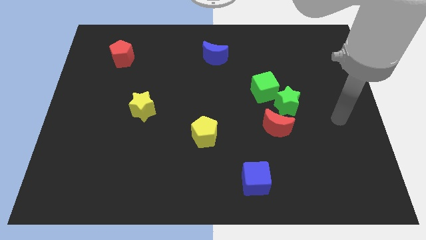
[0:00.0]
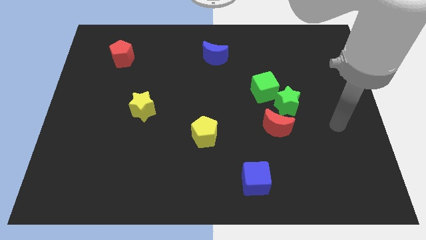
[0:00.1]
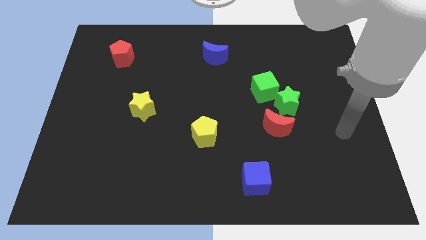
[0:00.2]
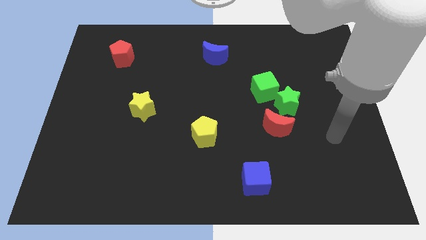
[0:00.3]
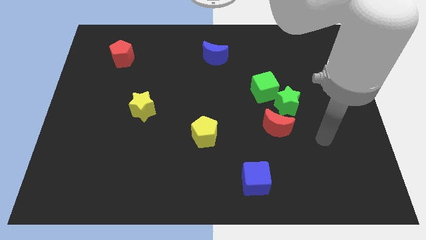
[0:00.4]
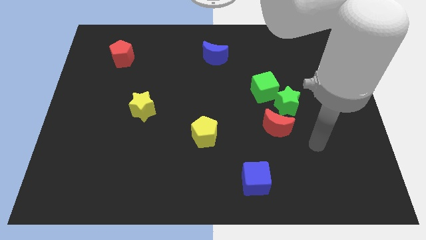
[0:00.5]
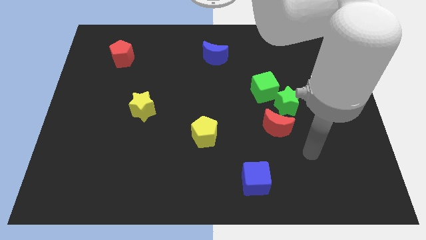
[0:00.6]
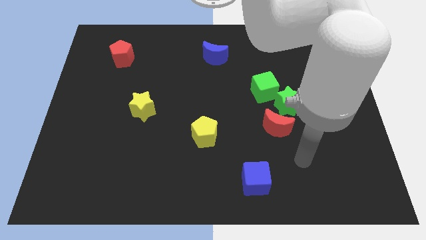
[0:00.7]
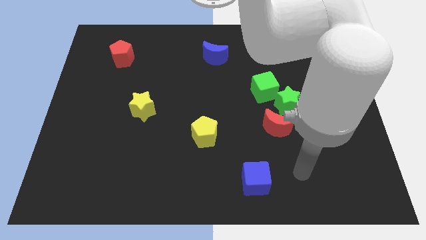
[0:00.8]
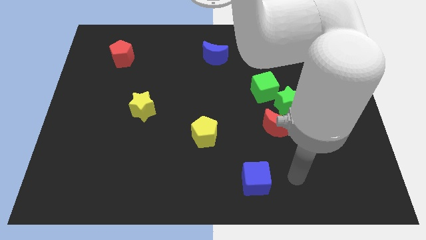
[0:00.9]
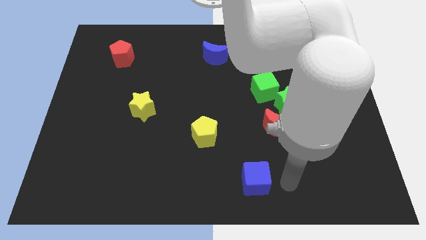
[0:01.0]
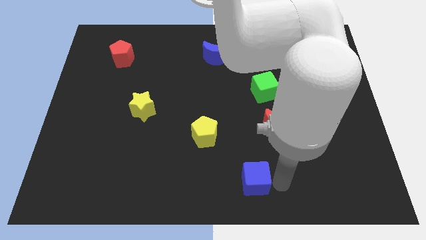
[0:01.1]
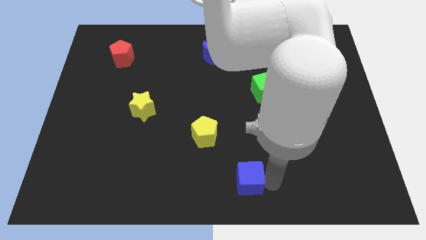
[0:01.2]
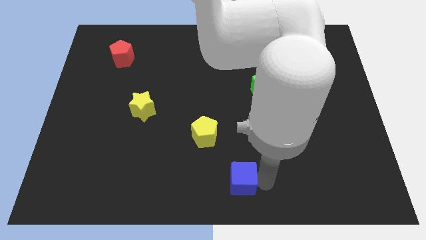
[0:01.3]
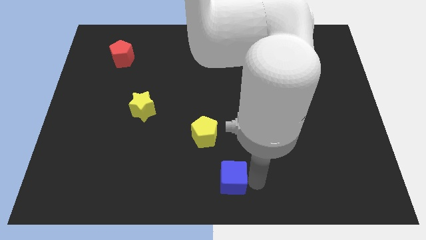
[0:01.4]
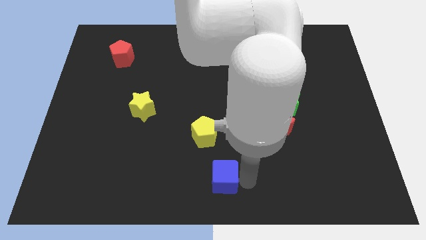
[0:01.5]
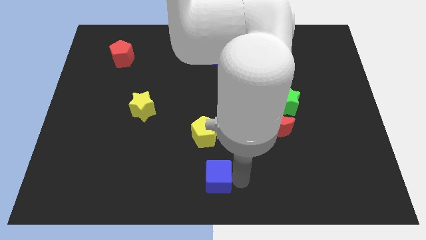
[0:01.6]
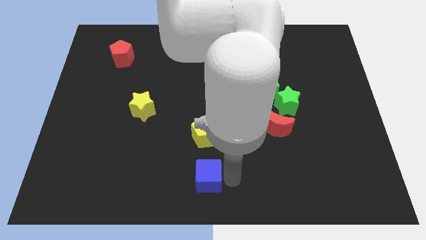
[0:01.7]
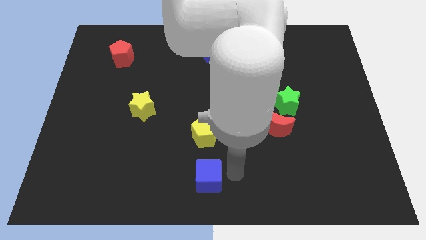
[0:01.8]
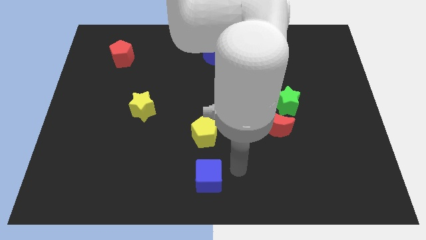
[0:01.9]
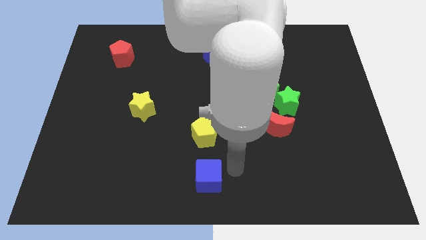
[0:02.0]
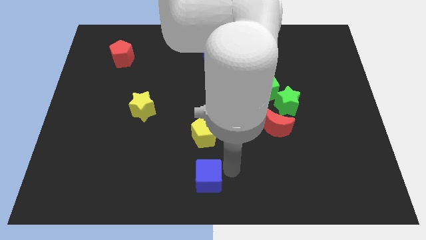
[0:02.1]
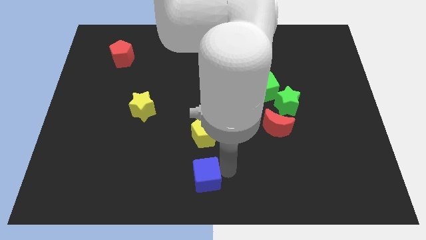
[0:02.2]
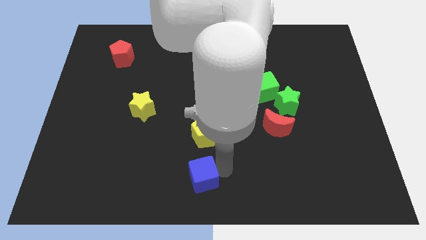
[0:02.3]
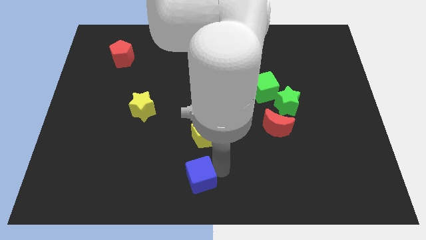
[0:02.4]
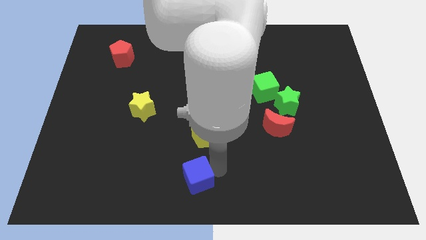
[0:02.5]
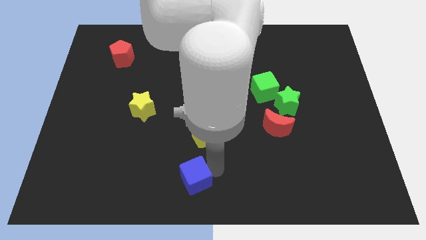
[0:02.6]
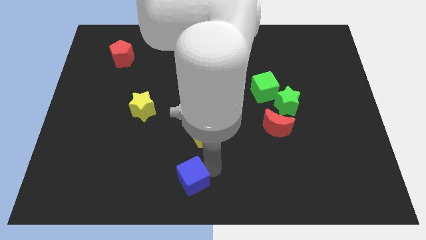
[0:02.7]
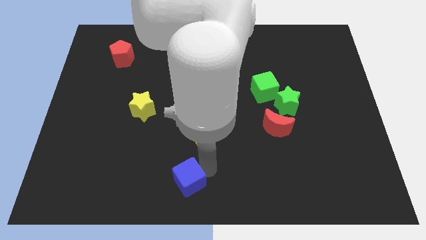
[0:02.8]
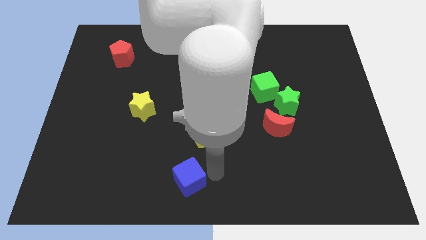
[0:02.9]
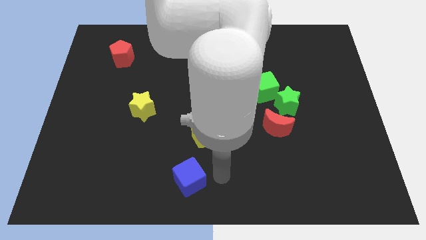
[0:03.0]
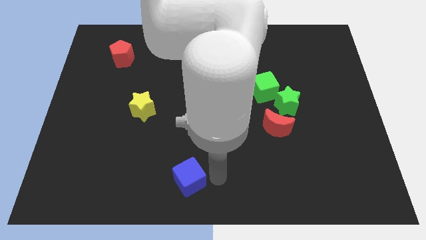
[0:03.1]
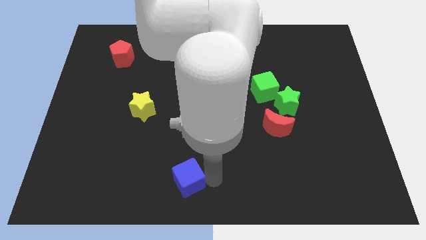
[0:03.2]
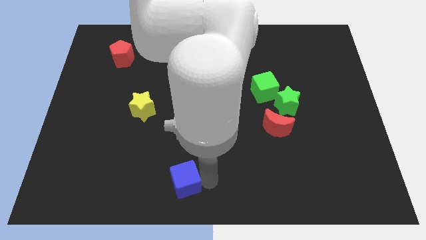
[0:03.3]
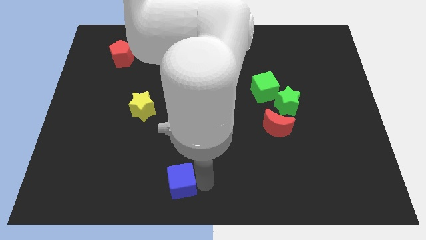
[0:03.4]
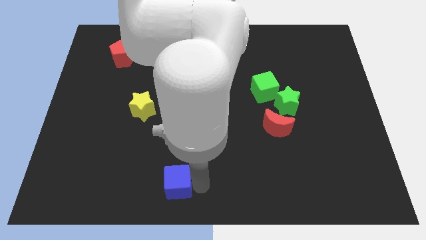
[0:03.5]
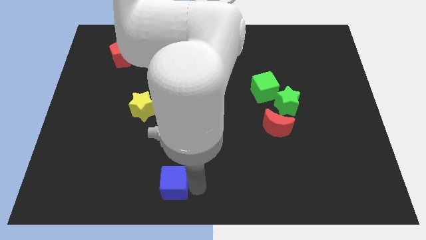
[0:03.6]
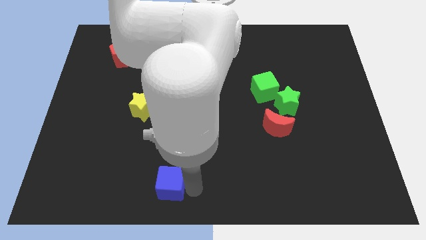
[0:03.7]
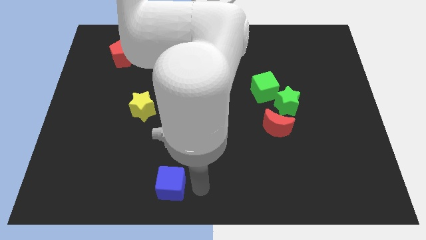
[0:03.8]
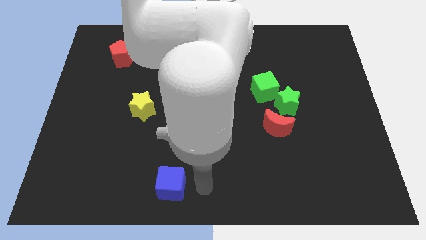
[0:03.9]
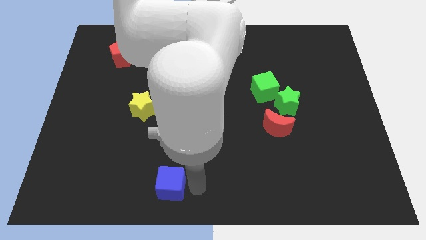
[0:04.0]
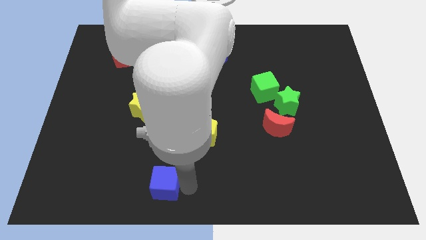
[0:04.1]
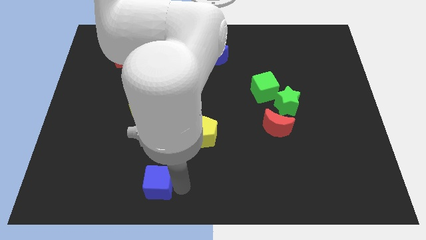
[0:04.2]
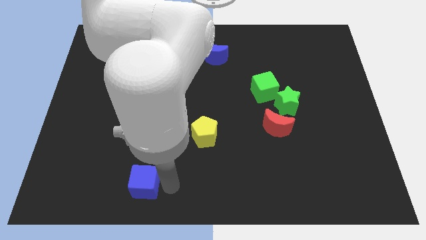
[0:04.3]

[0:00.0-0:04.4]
move the blue cube to the left

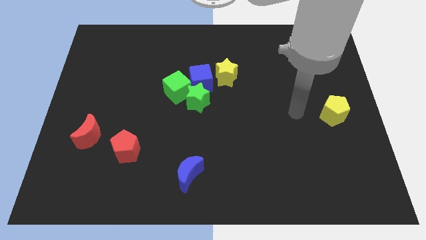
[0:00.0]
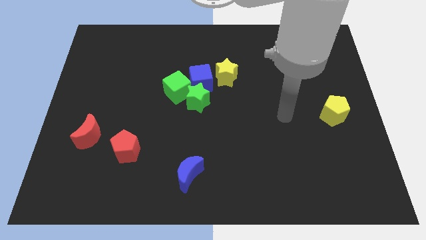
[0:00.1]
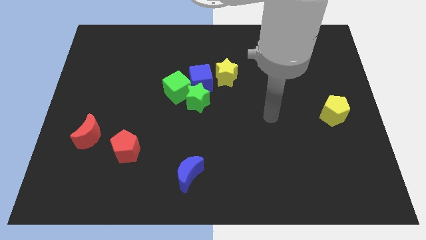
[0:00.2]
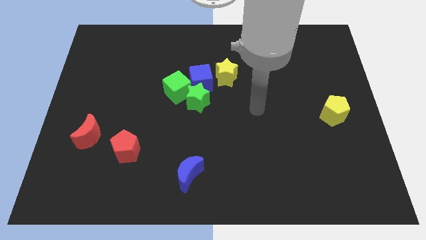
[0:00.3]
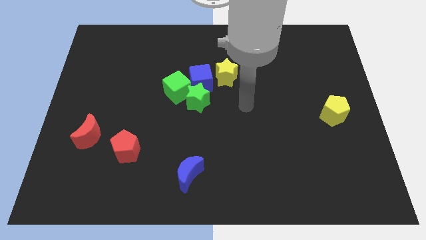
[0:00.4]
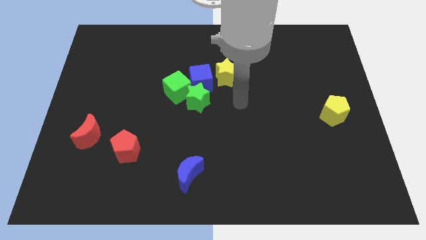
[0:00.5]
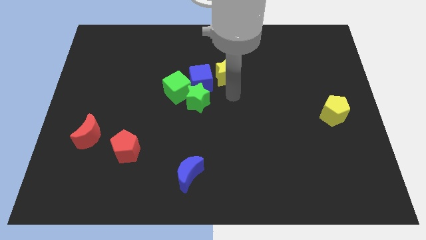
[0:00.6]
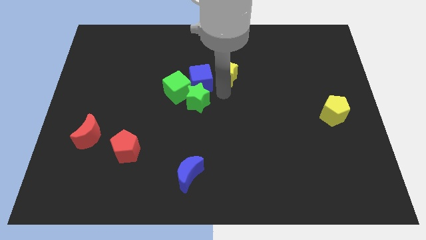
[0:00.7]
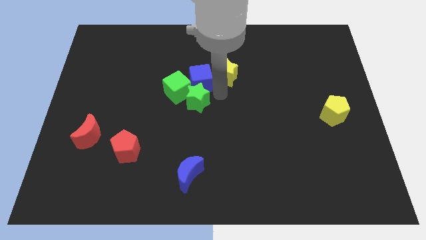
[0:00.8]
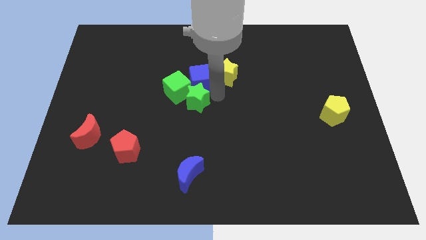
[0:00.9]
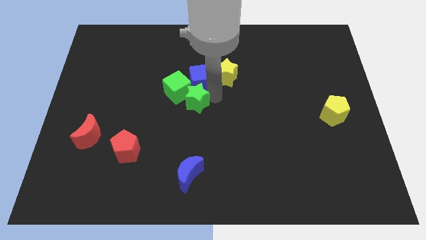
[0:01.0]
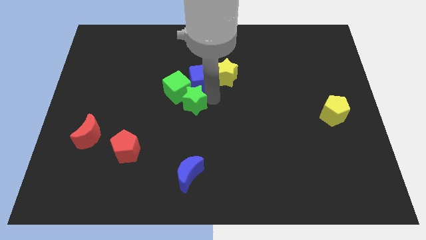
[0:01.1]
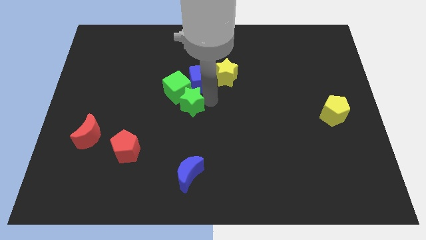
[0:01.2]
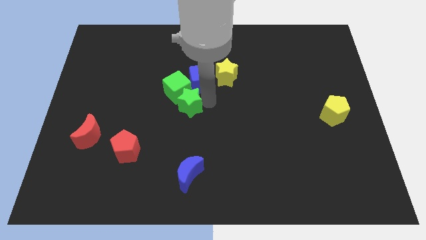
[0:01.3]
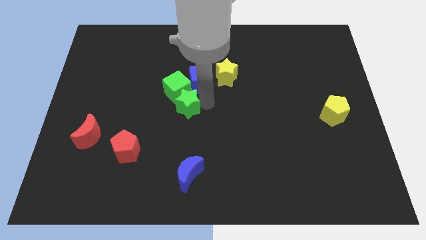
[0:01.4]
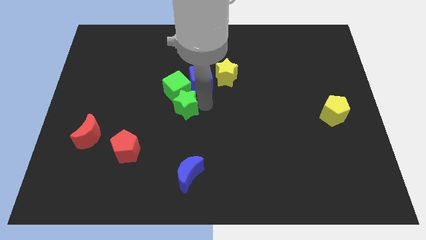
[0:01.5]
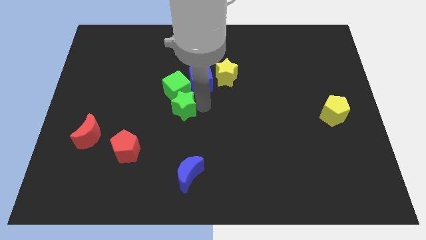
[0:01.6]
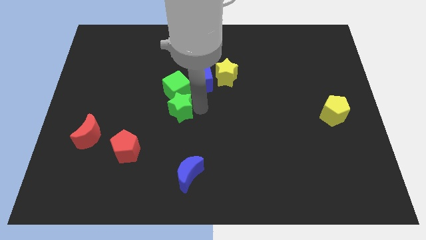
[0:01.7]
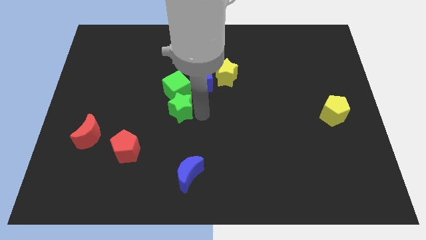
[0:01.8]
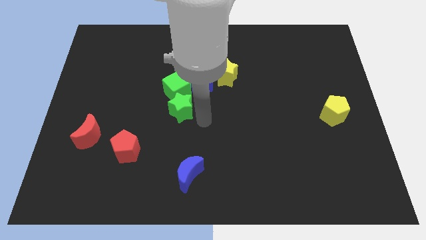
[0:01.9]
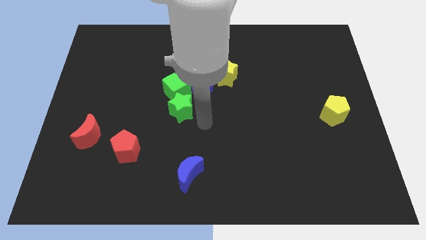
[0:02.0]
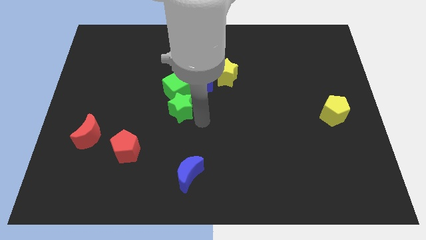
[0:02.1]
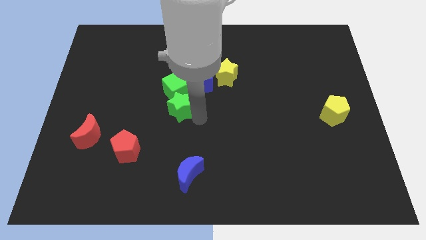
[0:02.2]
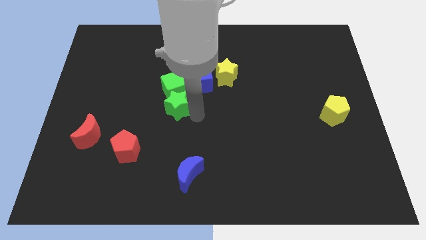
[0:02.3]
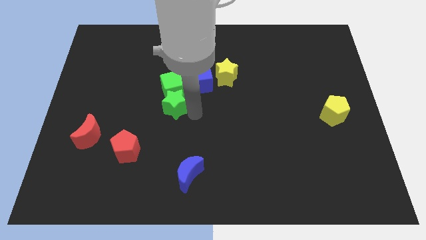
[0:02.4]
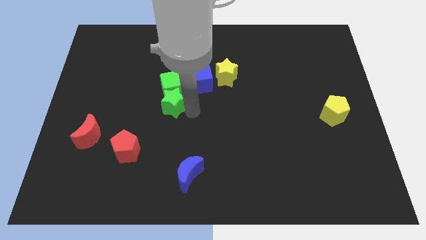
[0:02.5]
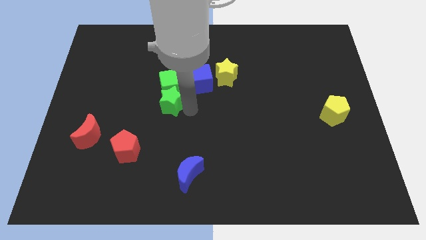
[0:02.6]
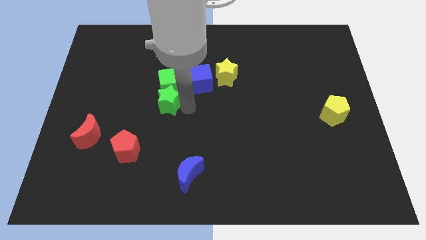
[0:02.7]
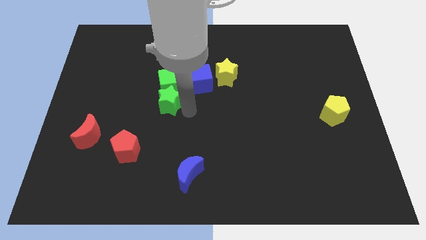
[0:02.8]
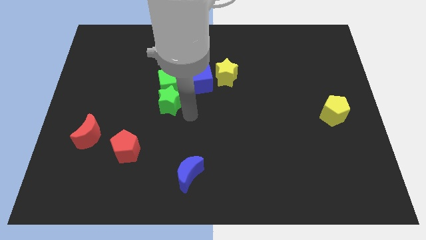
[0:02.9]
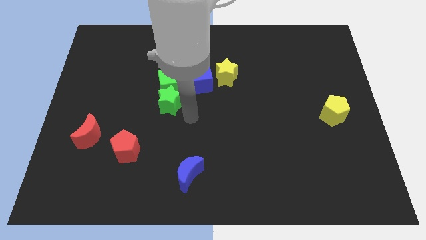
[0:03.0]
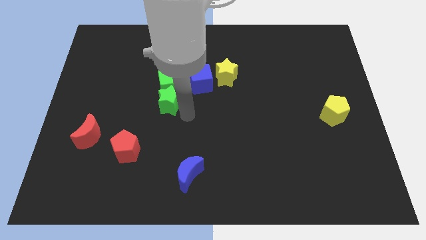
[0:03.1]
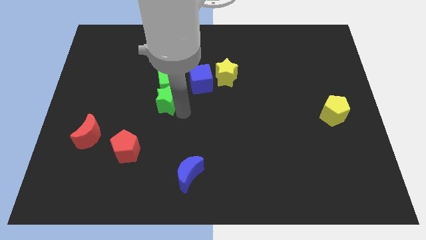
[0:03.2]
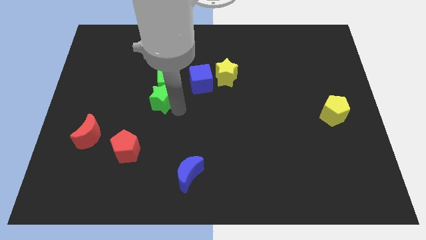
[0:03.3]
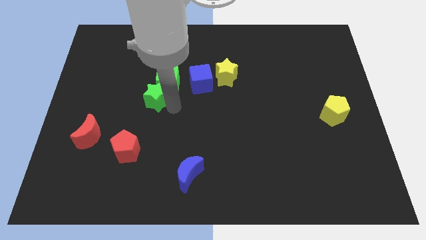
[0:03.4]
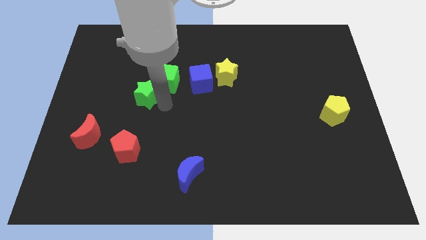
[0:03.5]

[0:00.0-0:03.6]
slightly slide the green star diagonally upwards and left
